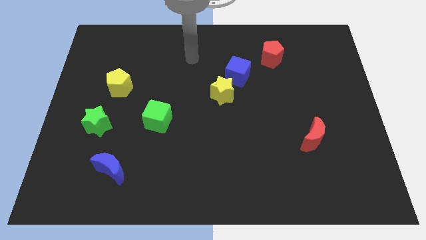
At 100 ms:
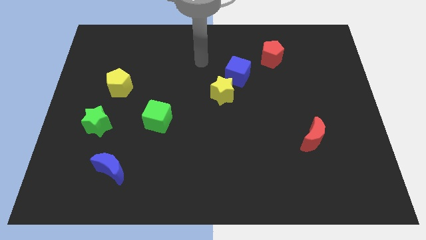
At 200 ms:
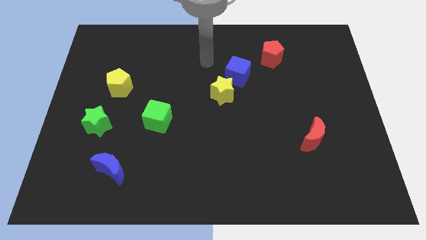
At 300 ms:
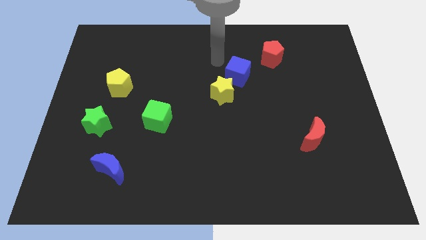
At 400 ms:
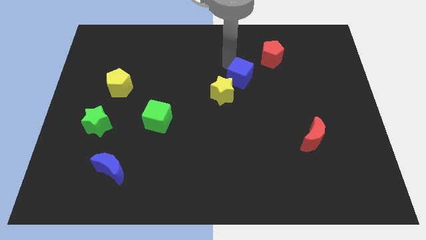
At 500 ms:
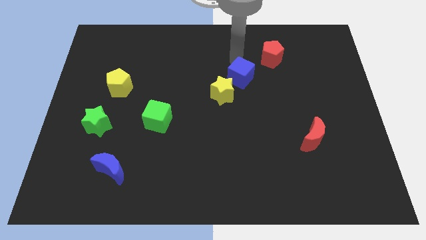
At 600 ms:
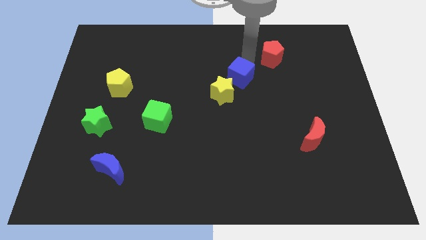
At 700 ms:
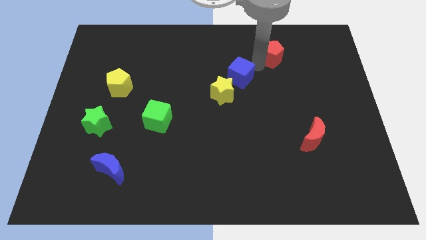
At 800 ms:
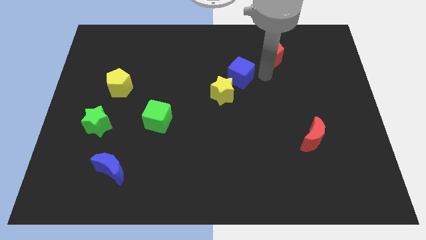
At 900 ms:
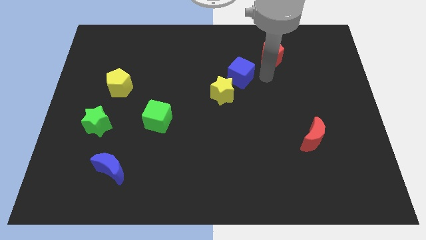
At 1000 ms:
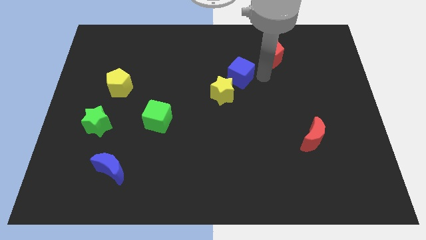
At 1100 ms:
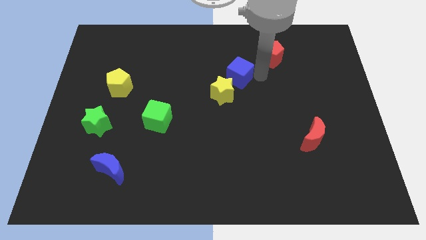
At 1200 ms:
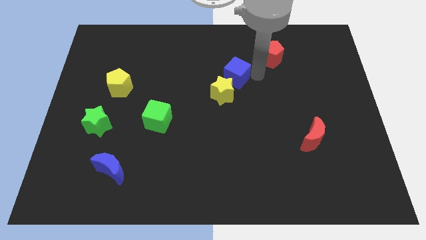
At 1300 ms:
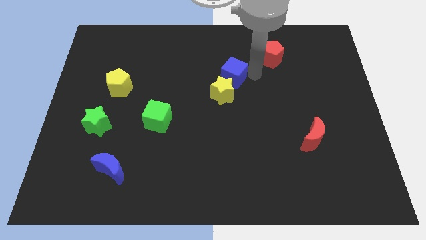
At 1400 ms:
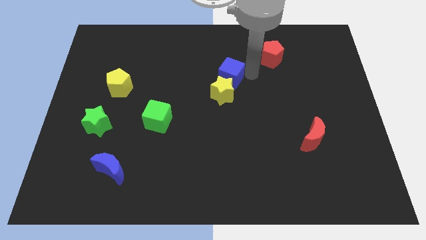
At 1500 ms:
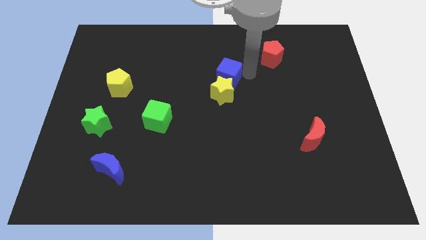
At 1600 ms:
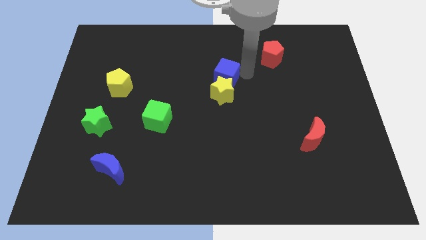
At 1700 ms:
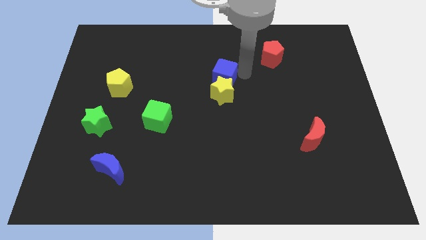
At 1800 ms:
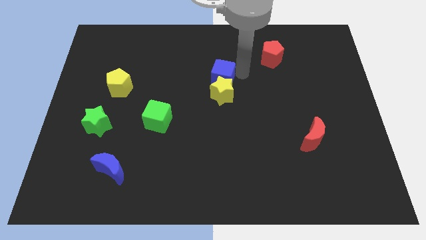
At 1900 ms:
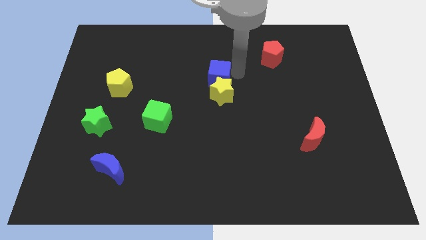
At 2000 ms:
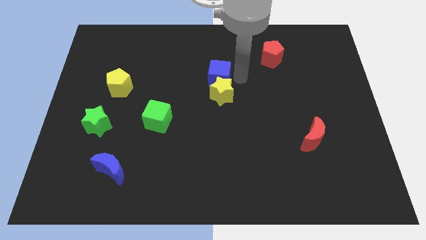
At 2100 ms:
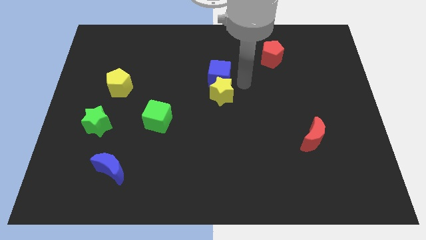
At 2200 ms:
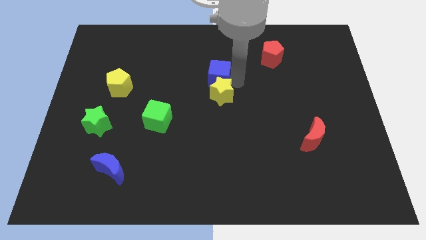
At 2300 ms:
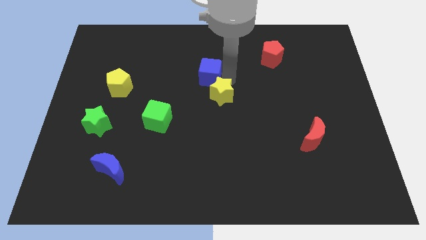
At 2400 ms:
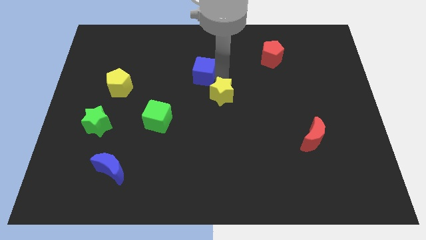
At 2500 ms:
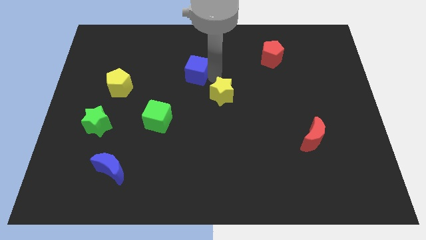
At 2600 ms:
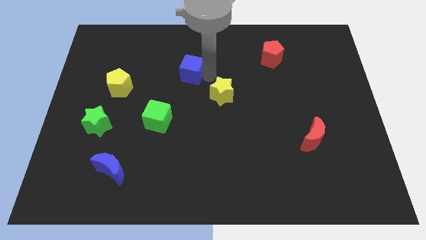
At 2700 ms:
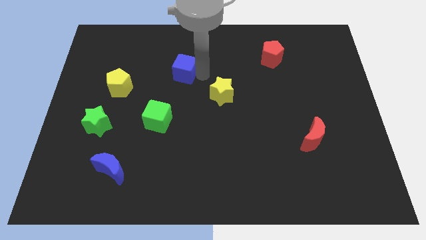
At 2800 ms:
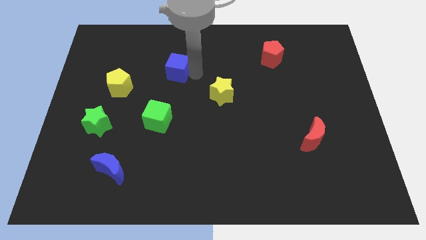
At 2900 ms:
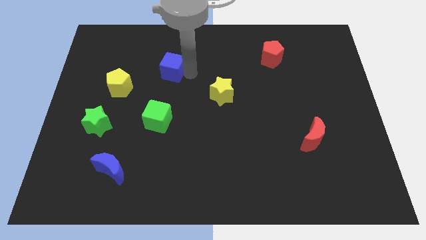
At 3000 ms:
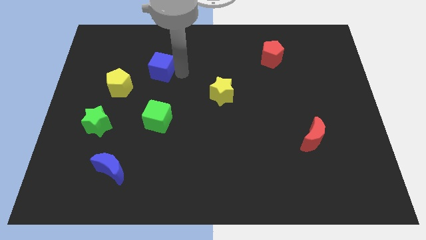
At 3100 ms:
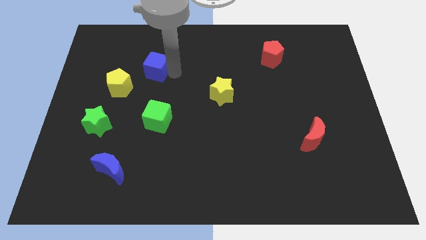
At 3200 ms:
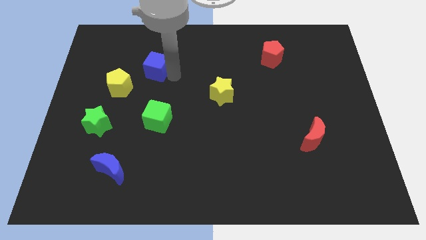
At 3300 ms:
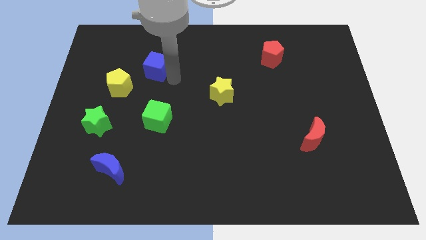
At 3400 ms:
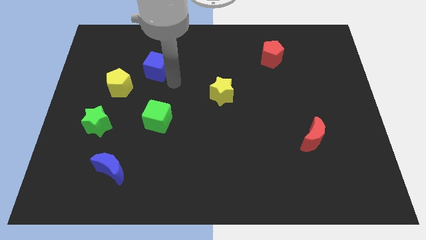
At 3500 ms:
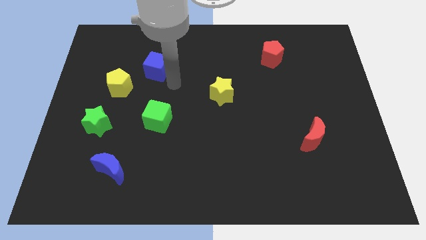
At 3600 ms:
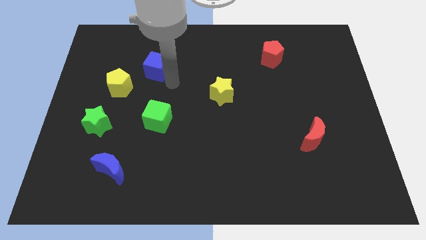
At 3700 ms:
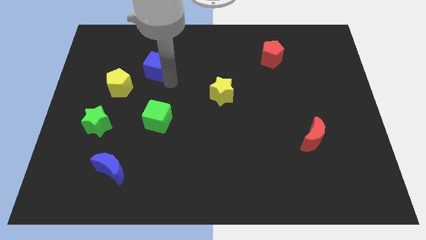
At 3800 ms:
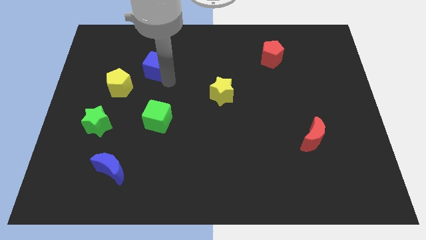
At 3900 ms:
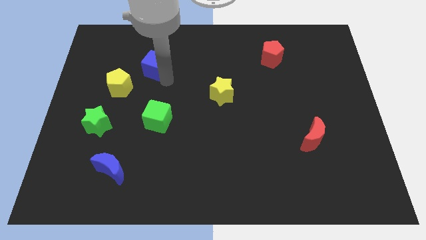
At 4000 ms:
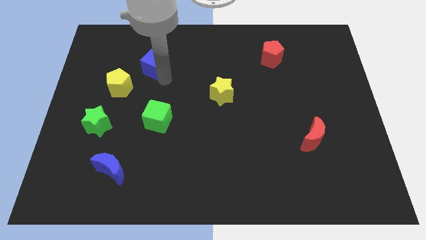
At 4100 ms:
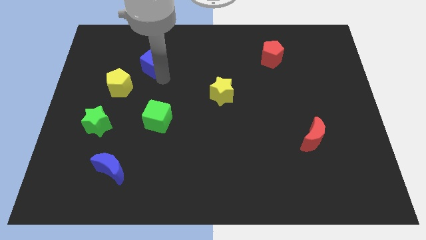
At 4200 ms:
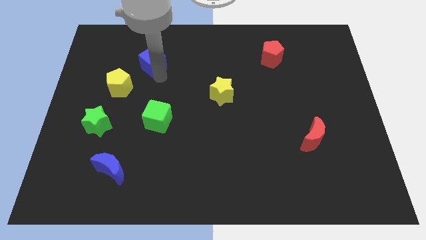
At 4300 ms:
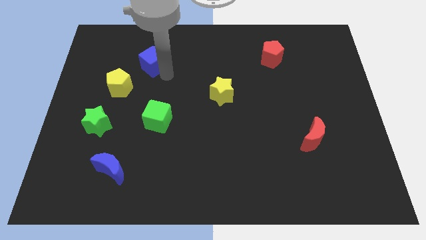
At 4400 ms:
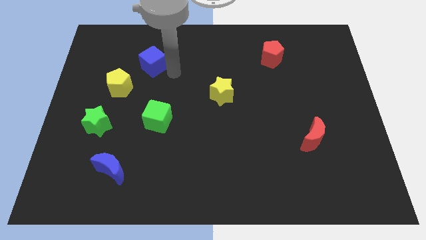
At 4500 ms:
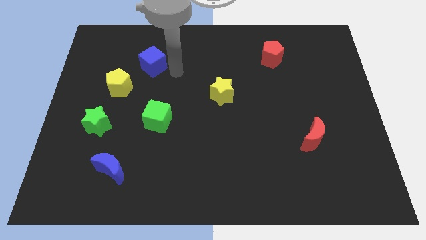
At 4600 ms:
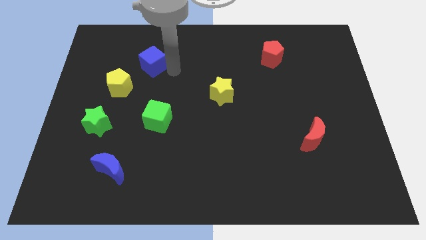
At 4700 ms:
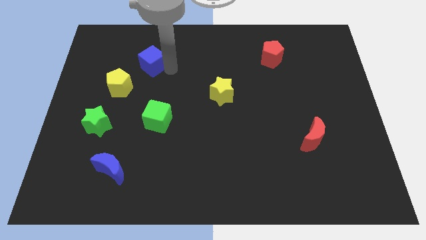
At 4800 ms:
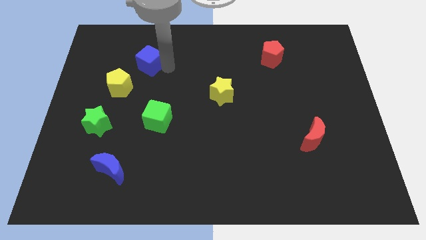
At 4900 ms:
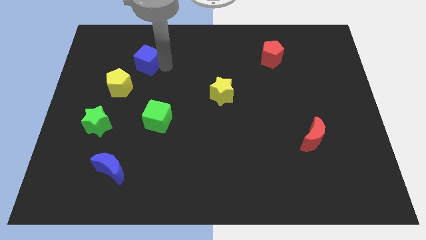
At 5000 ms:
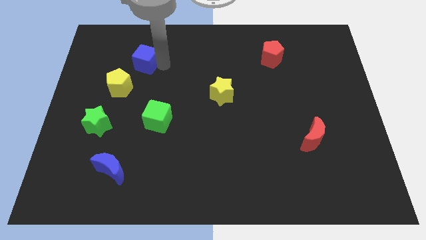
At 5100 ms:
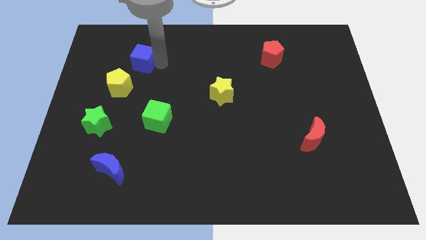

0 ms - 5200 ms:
slide the blue cube above the yellow pentagon

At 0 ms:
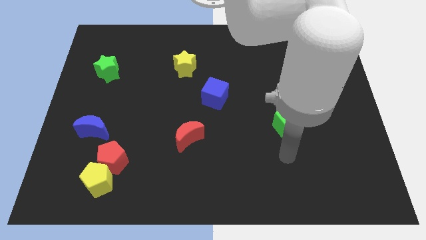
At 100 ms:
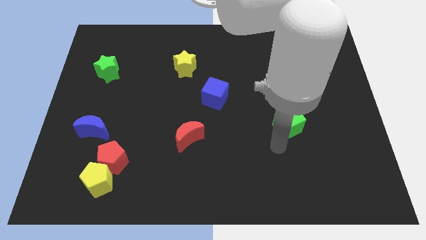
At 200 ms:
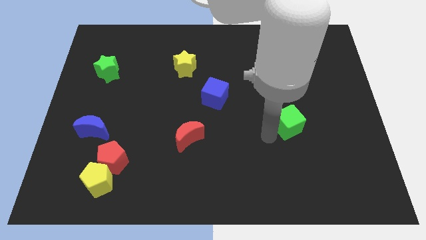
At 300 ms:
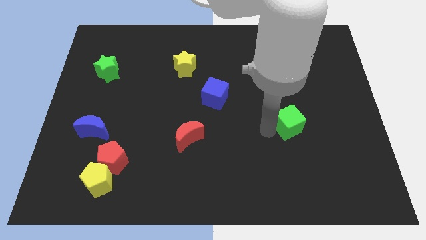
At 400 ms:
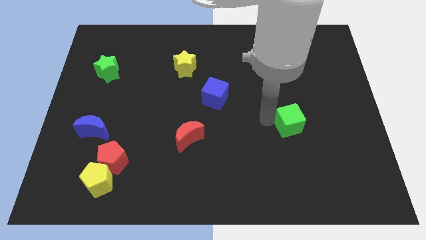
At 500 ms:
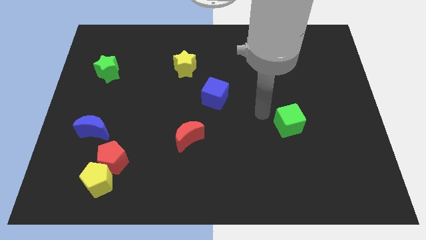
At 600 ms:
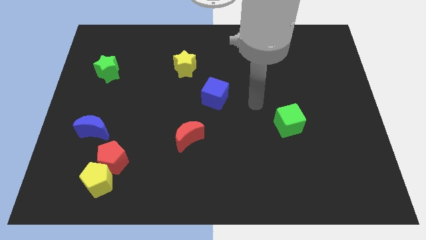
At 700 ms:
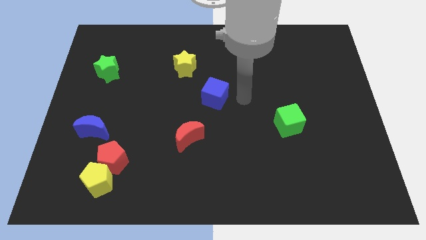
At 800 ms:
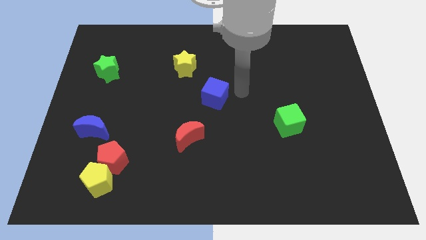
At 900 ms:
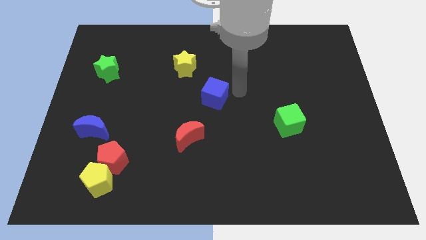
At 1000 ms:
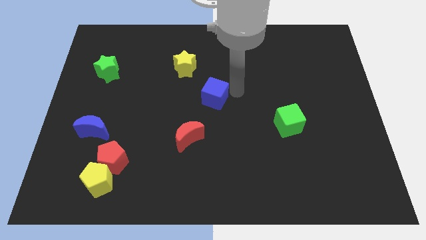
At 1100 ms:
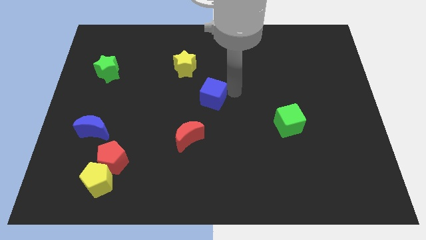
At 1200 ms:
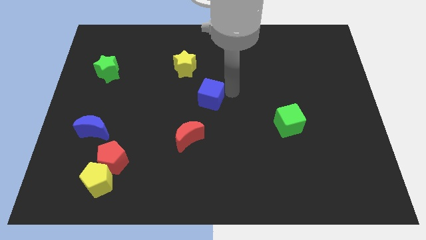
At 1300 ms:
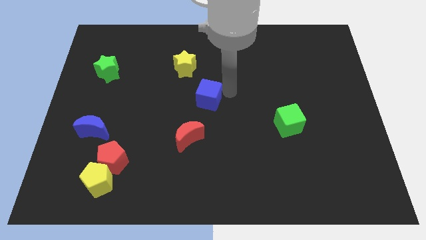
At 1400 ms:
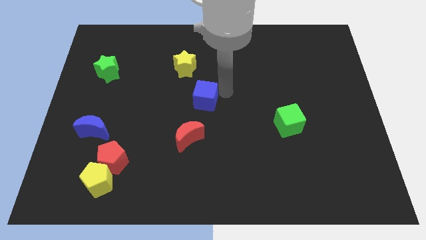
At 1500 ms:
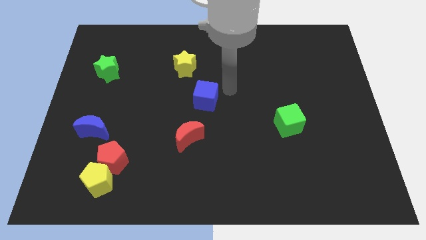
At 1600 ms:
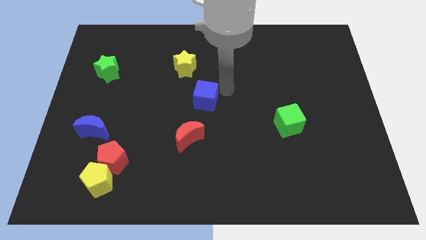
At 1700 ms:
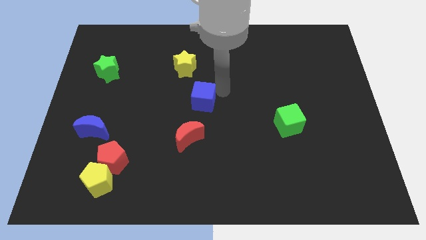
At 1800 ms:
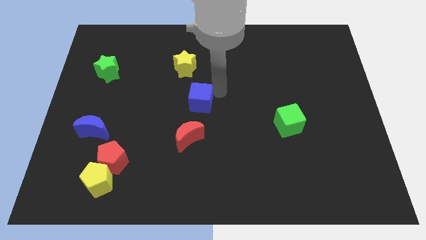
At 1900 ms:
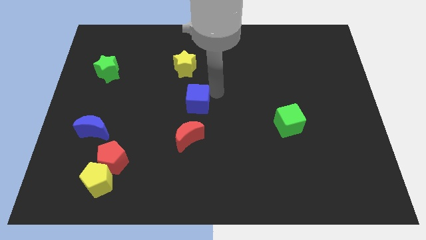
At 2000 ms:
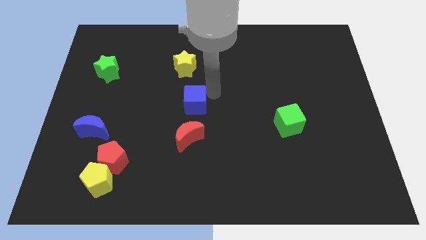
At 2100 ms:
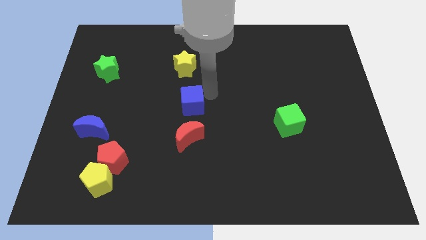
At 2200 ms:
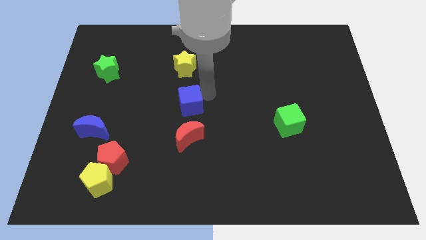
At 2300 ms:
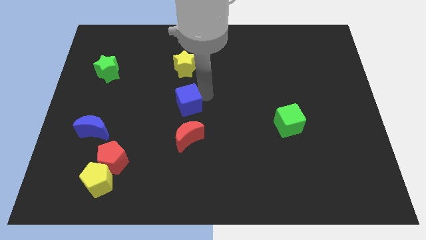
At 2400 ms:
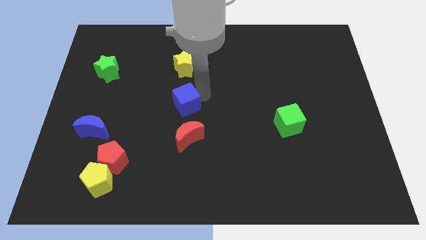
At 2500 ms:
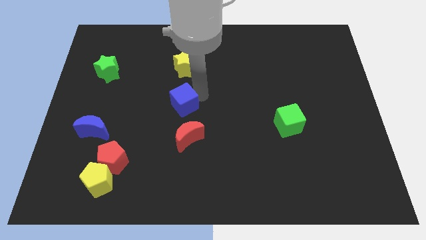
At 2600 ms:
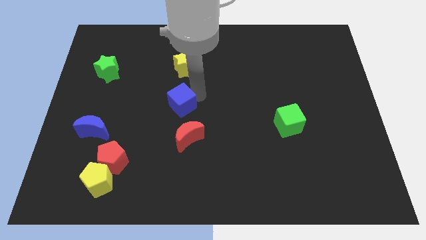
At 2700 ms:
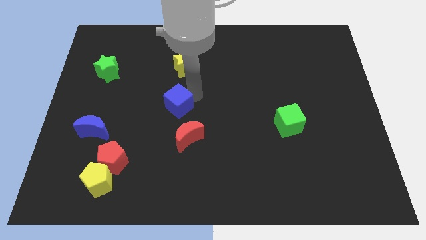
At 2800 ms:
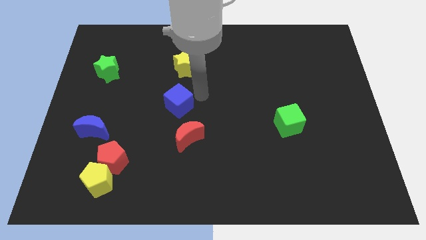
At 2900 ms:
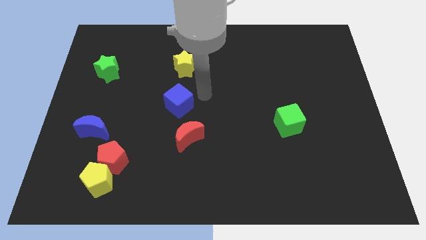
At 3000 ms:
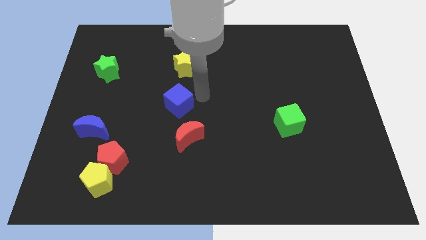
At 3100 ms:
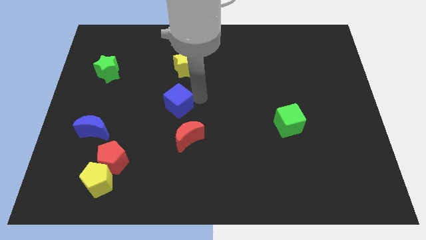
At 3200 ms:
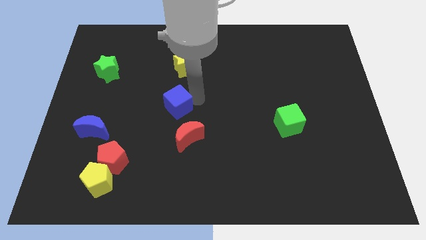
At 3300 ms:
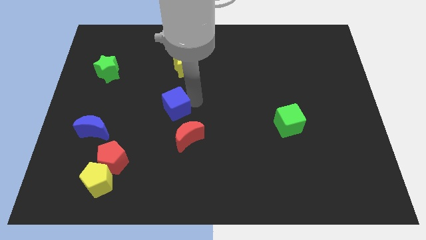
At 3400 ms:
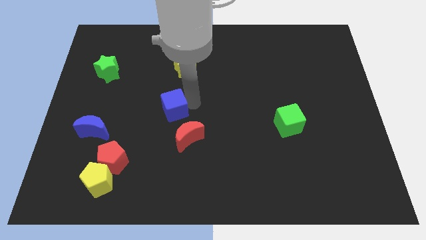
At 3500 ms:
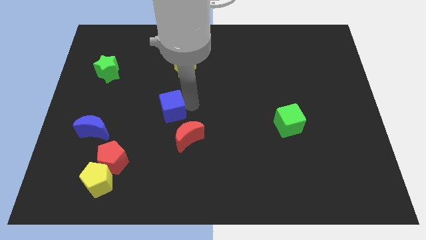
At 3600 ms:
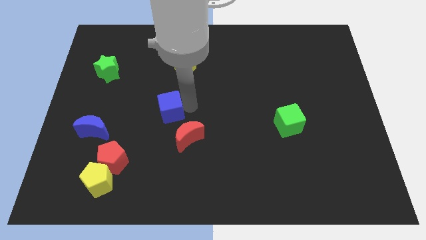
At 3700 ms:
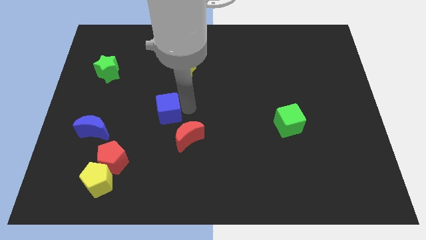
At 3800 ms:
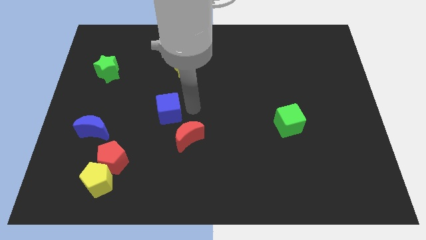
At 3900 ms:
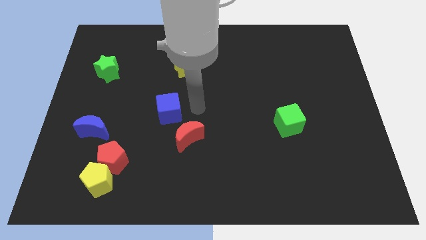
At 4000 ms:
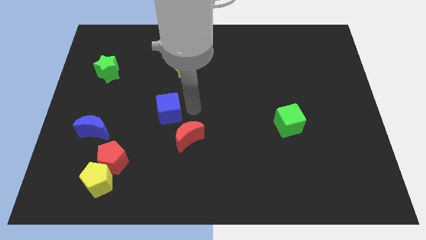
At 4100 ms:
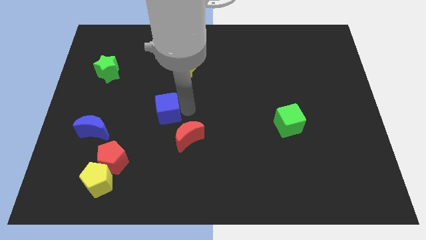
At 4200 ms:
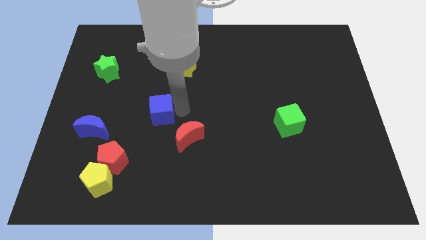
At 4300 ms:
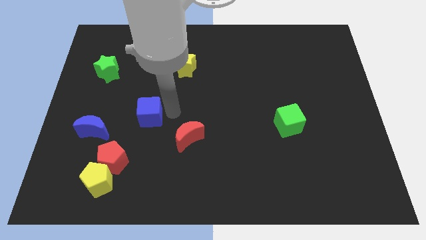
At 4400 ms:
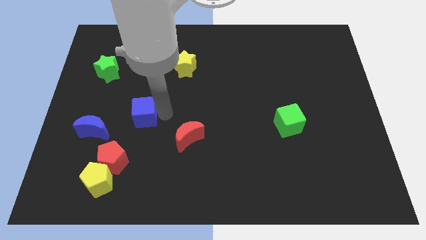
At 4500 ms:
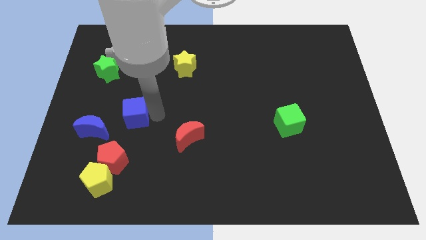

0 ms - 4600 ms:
put the blue cube to the top right of the blue moon
